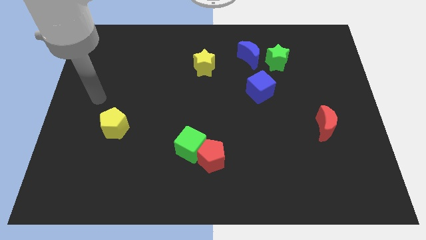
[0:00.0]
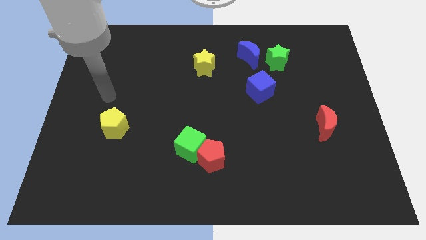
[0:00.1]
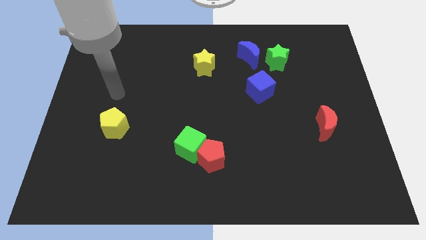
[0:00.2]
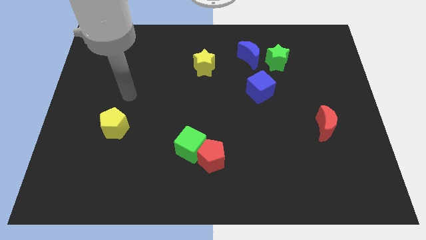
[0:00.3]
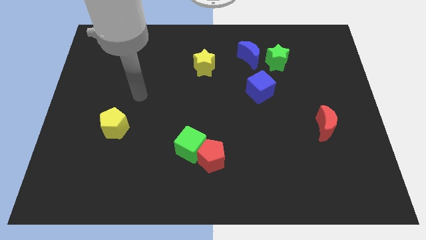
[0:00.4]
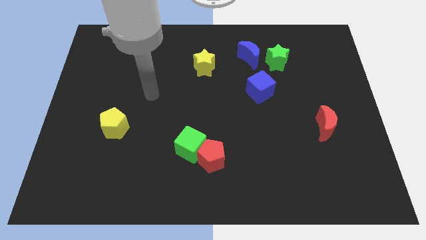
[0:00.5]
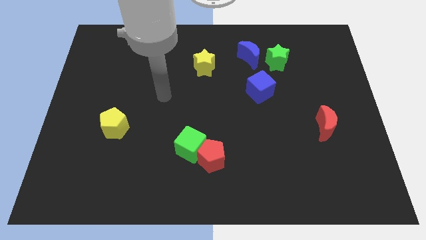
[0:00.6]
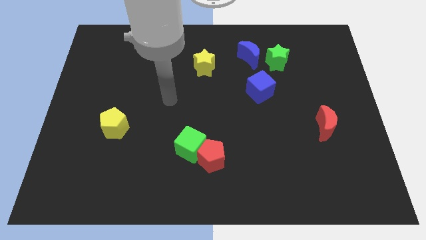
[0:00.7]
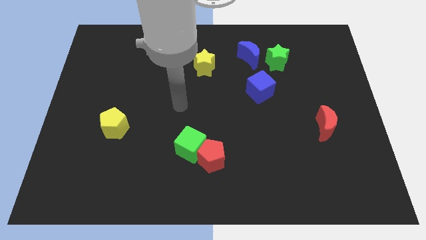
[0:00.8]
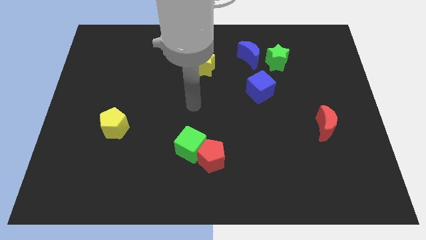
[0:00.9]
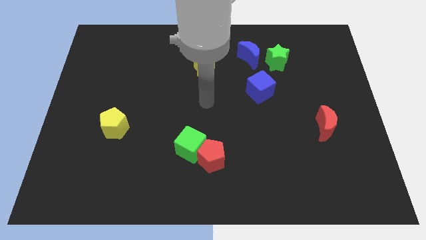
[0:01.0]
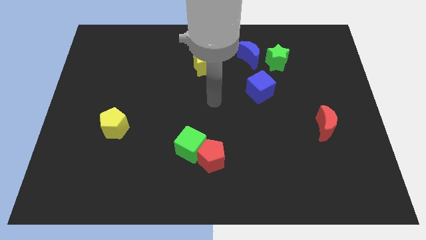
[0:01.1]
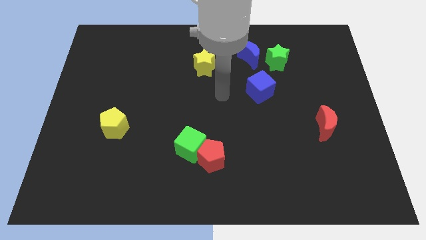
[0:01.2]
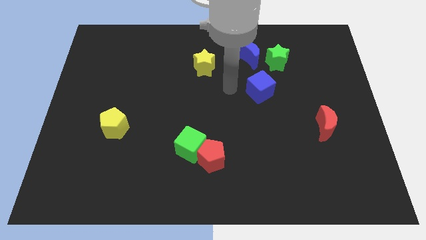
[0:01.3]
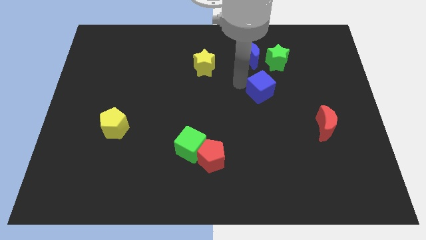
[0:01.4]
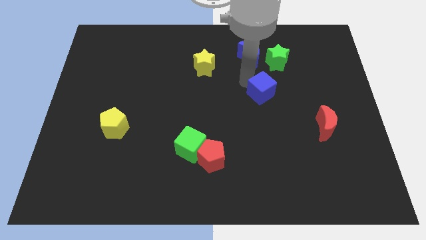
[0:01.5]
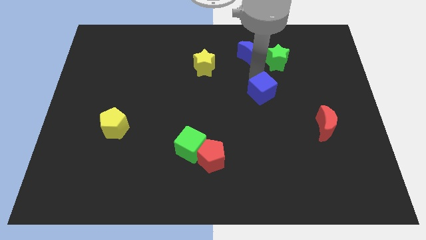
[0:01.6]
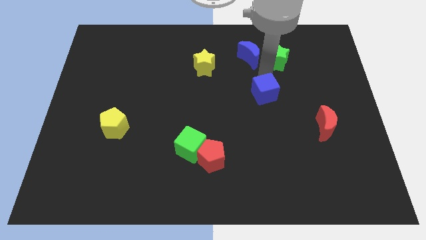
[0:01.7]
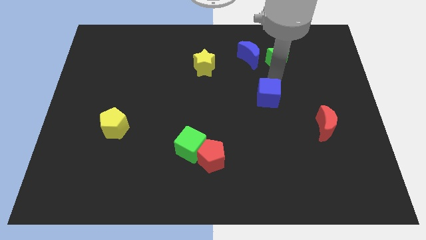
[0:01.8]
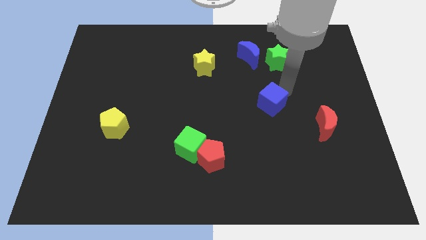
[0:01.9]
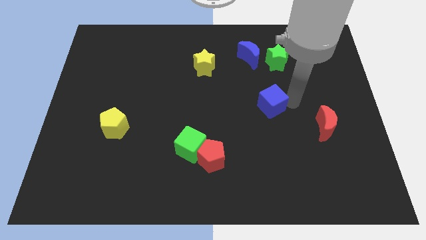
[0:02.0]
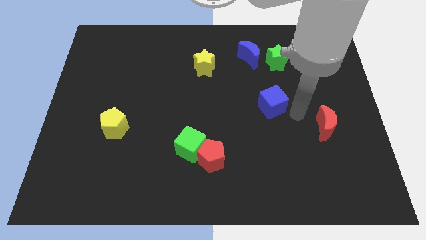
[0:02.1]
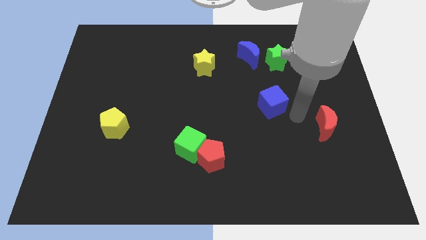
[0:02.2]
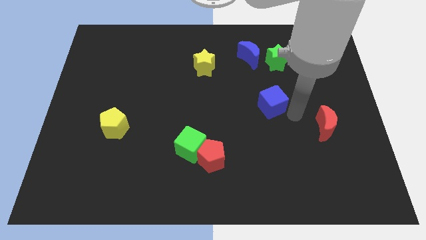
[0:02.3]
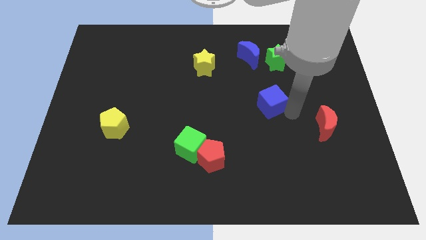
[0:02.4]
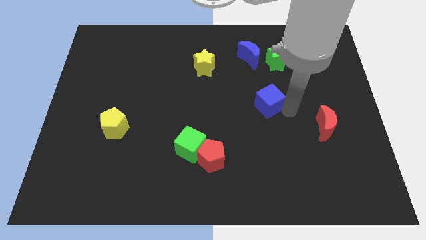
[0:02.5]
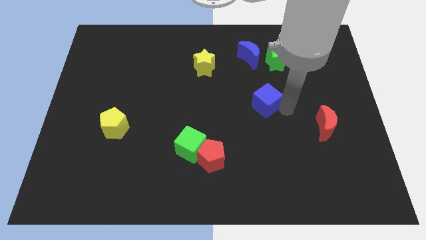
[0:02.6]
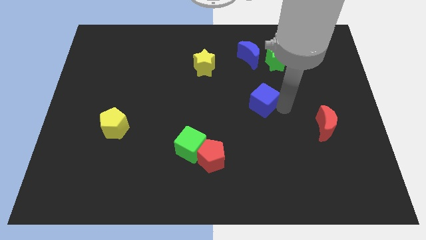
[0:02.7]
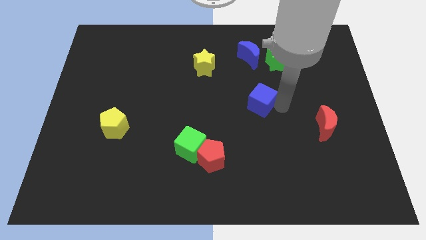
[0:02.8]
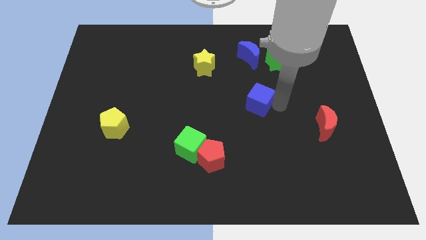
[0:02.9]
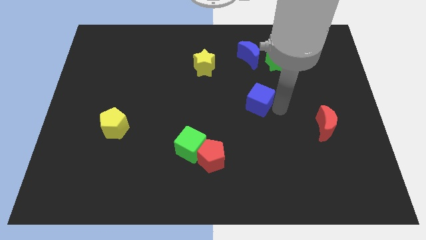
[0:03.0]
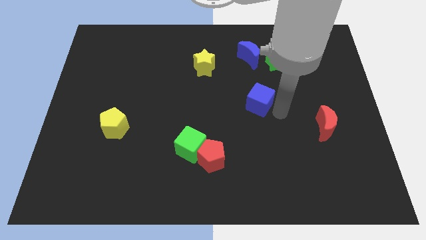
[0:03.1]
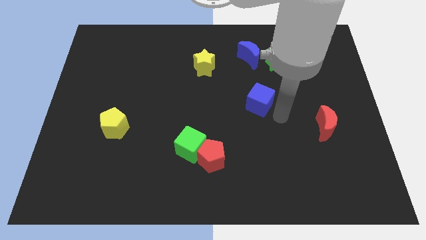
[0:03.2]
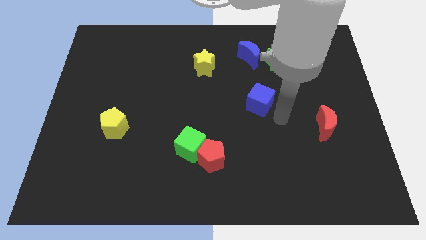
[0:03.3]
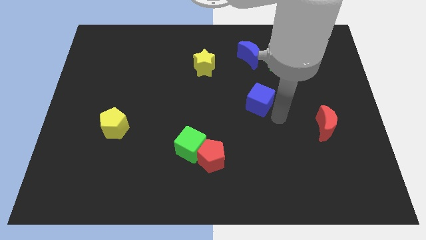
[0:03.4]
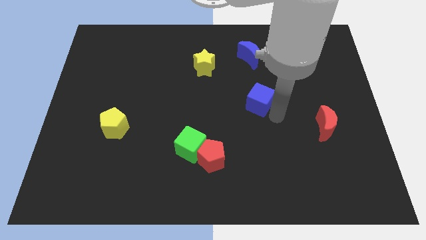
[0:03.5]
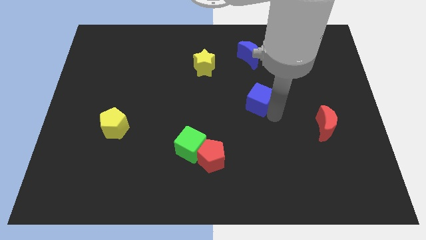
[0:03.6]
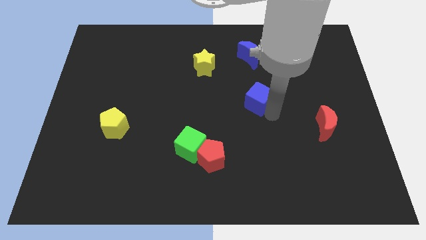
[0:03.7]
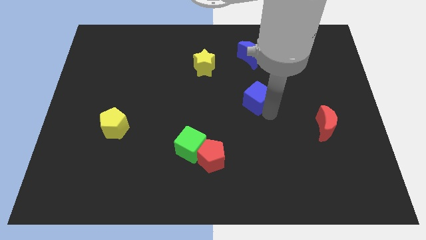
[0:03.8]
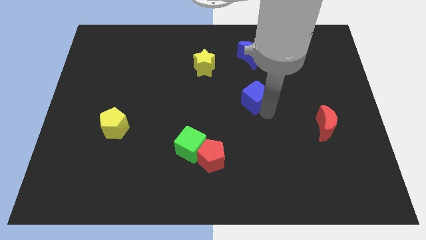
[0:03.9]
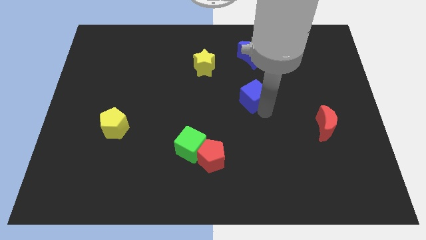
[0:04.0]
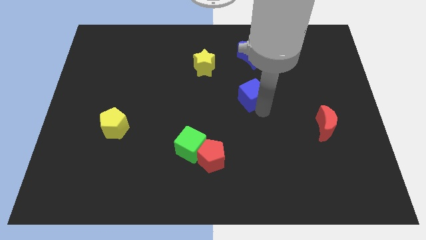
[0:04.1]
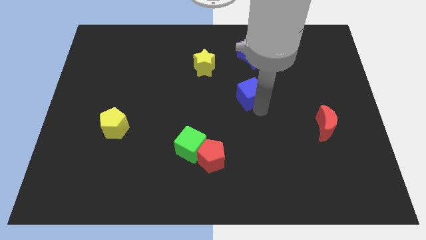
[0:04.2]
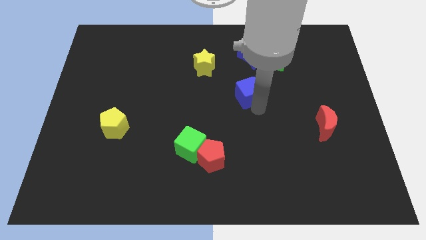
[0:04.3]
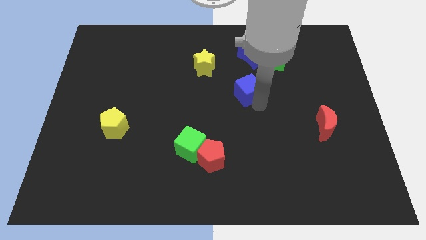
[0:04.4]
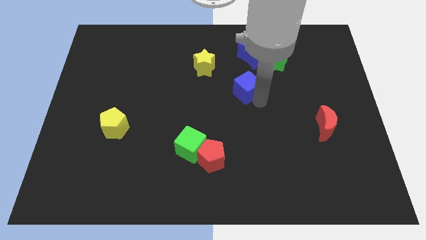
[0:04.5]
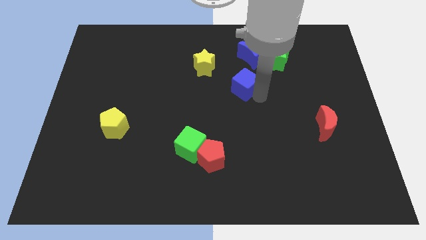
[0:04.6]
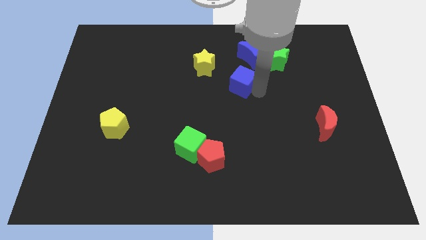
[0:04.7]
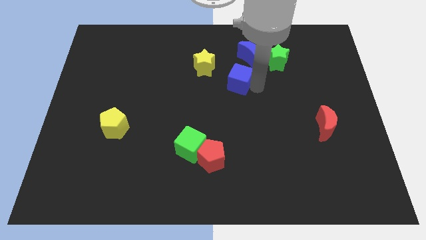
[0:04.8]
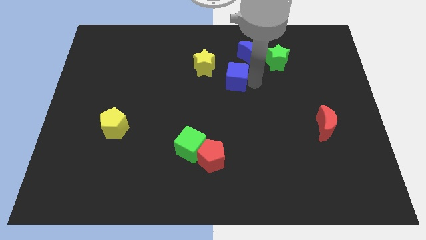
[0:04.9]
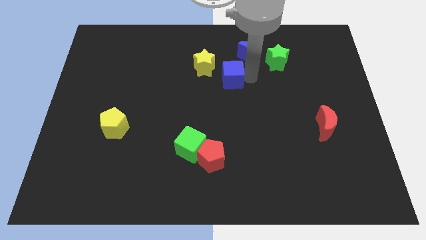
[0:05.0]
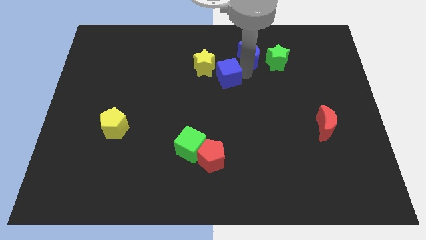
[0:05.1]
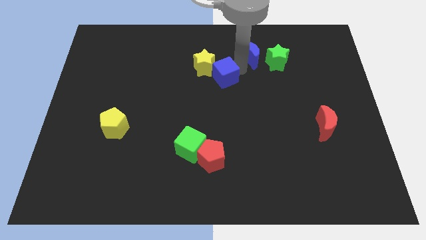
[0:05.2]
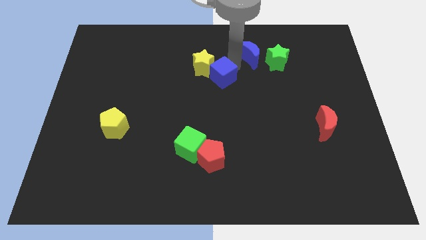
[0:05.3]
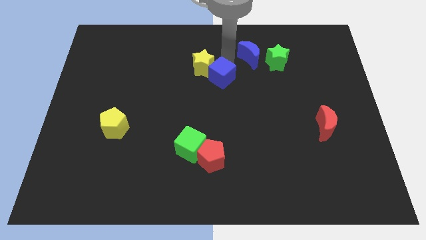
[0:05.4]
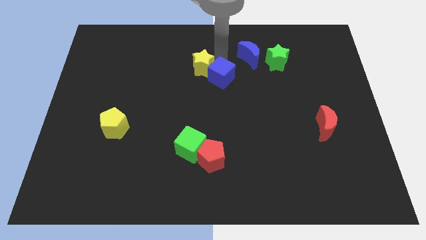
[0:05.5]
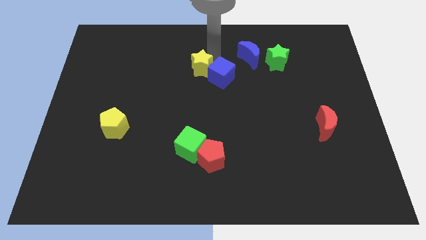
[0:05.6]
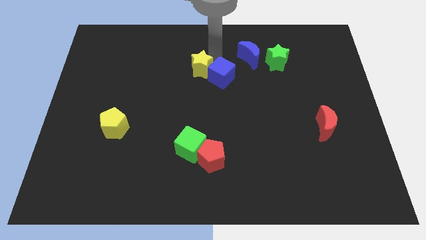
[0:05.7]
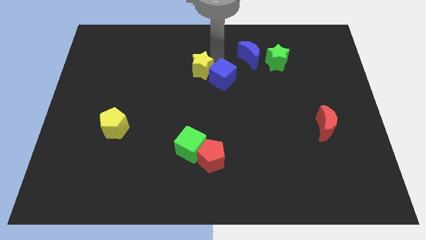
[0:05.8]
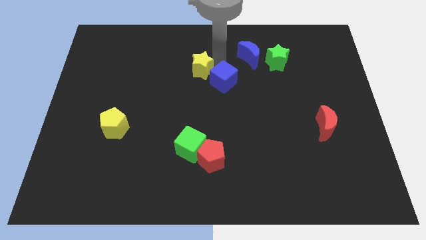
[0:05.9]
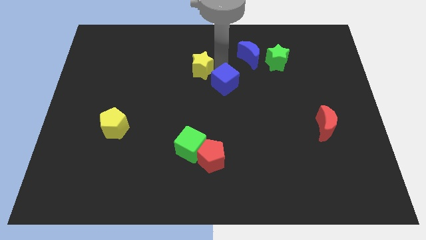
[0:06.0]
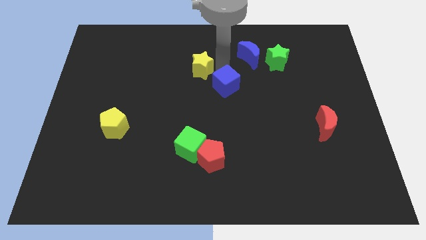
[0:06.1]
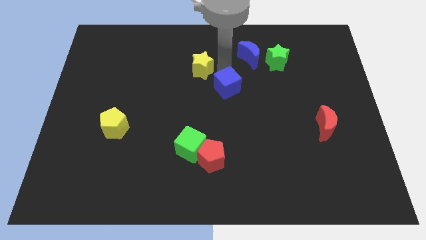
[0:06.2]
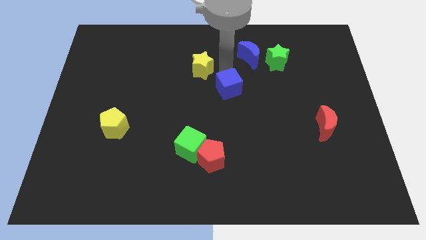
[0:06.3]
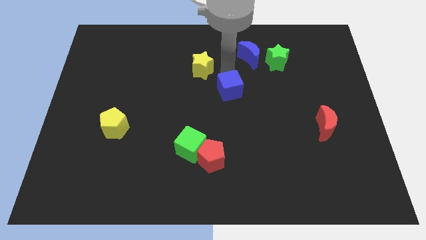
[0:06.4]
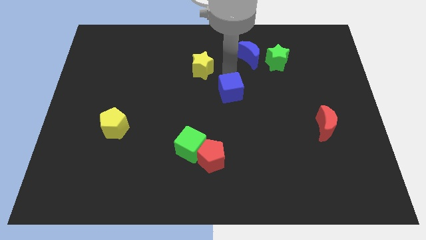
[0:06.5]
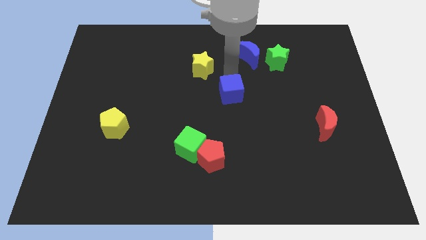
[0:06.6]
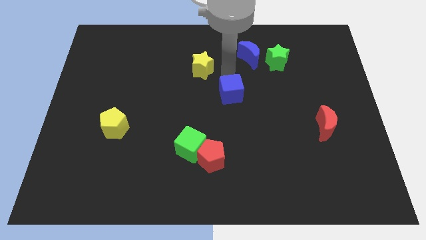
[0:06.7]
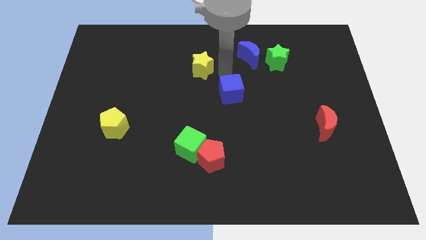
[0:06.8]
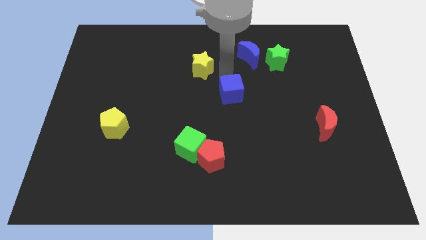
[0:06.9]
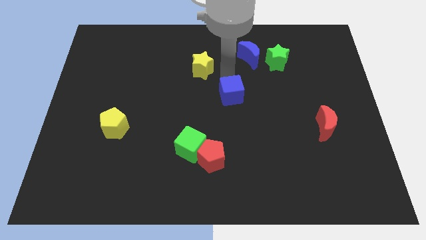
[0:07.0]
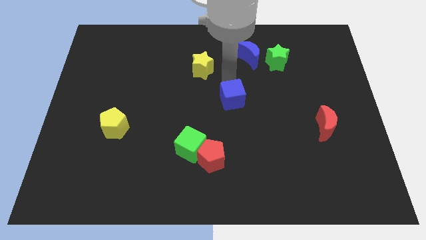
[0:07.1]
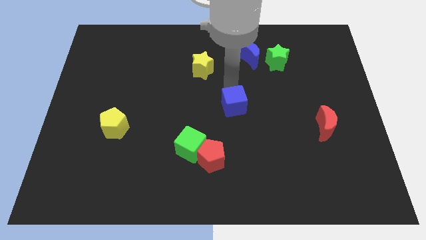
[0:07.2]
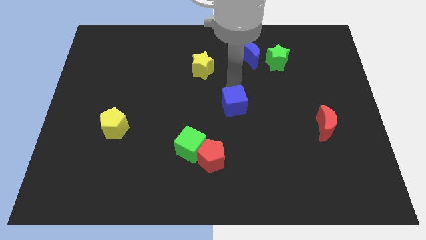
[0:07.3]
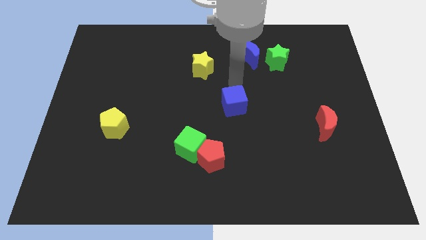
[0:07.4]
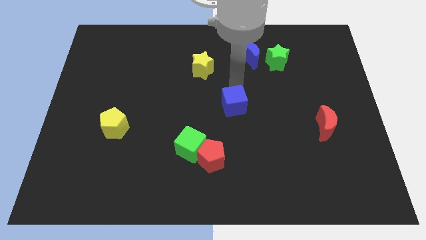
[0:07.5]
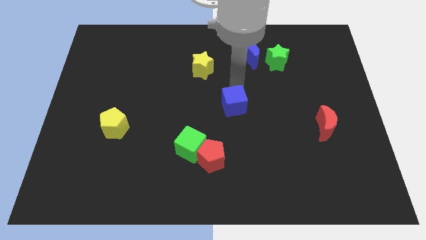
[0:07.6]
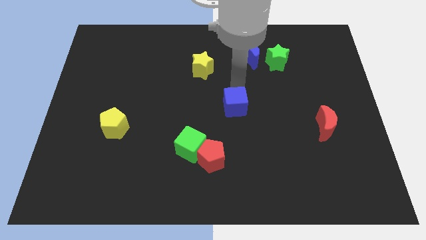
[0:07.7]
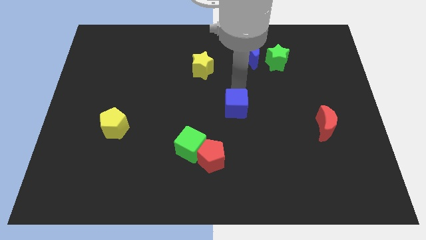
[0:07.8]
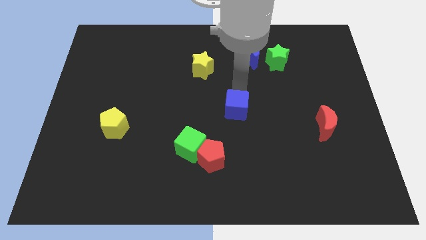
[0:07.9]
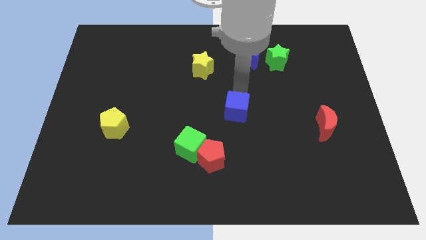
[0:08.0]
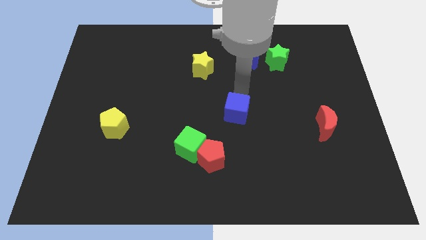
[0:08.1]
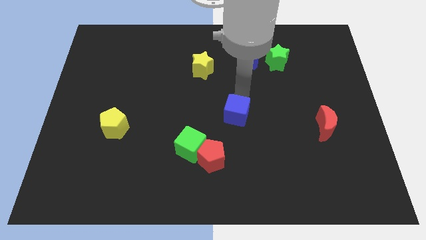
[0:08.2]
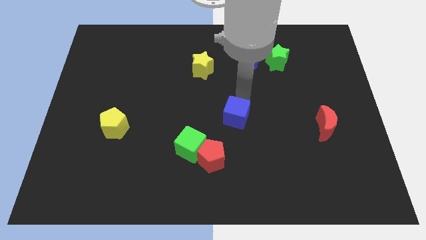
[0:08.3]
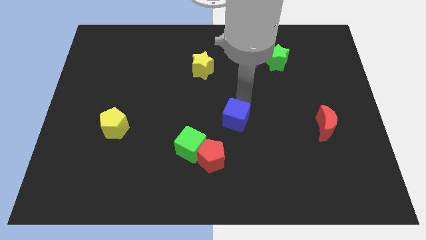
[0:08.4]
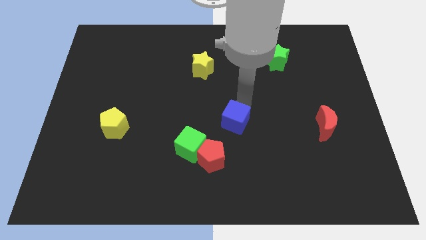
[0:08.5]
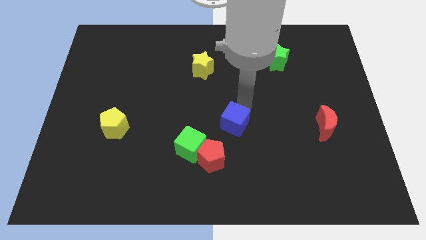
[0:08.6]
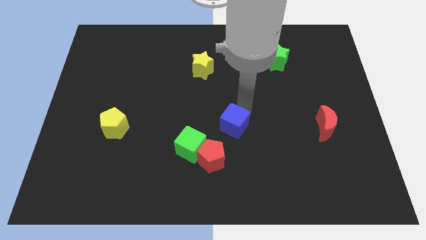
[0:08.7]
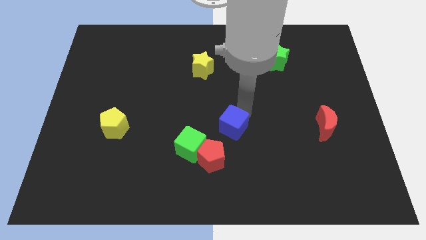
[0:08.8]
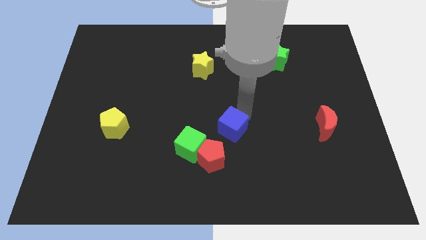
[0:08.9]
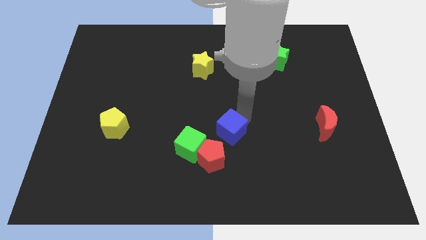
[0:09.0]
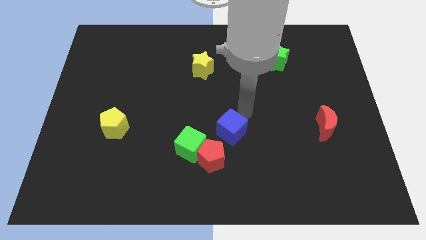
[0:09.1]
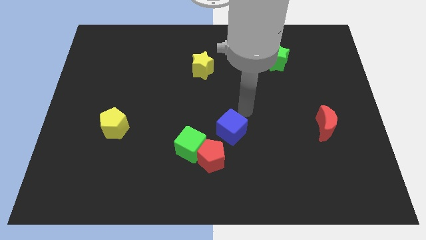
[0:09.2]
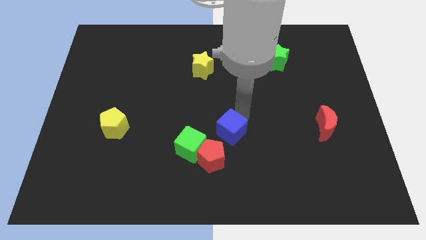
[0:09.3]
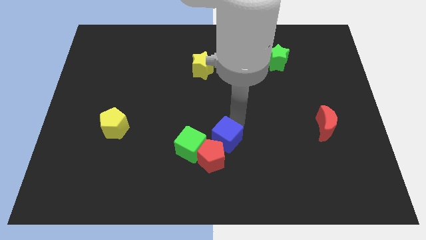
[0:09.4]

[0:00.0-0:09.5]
slide the blue cube next to the red pentagon
